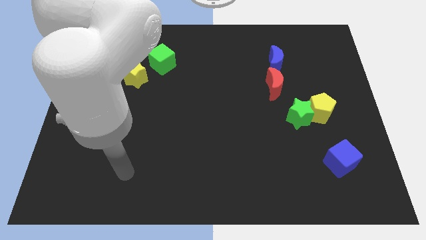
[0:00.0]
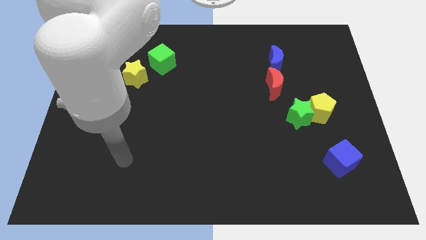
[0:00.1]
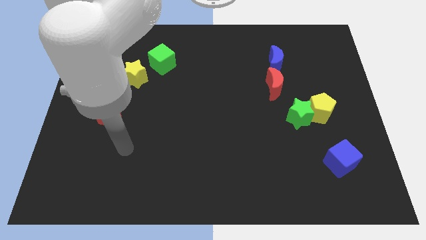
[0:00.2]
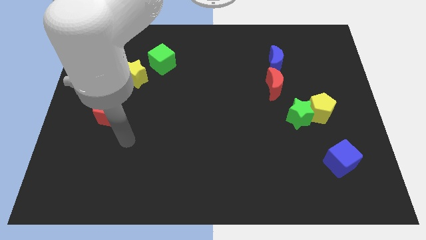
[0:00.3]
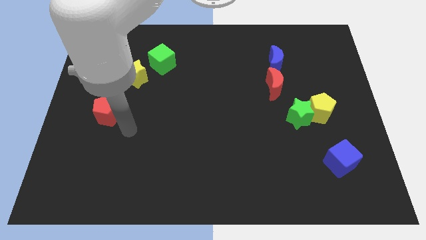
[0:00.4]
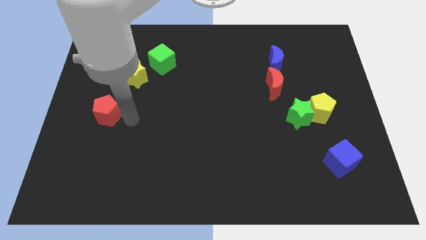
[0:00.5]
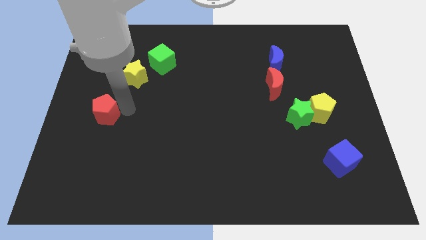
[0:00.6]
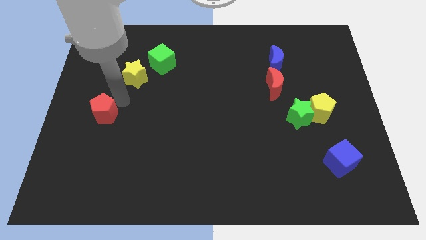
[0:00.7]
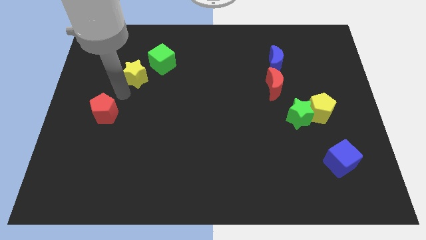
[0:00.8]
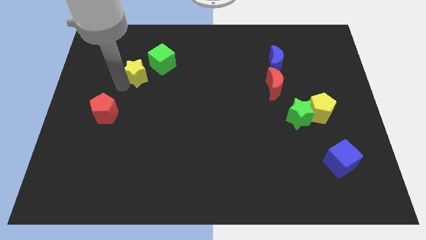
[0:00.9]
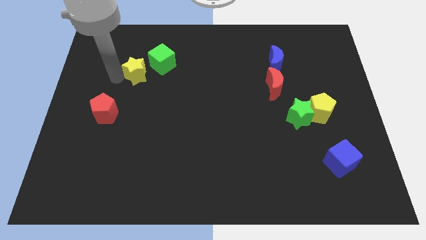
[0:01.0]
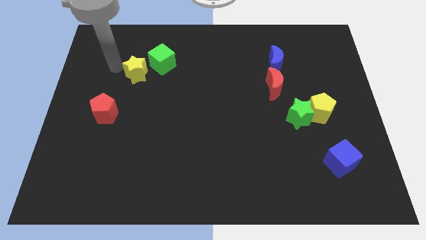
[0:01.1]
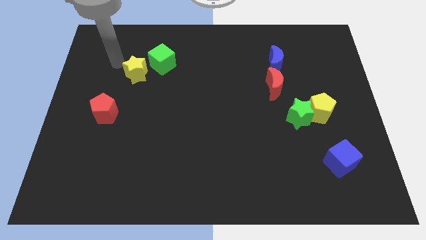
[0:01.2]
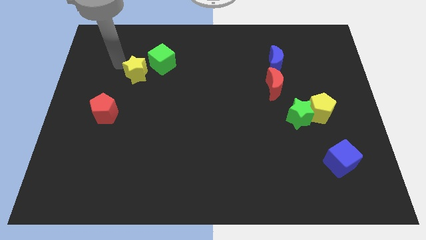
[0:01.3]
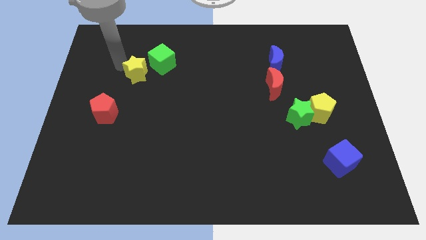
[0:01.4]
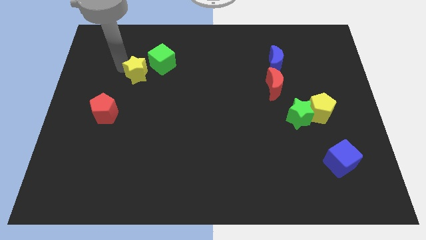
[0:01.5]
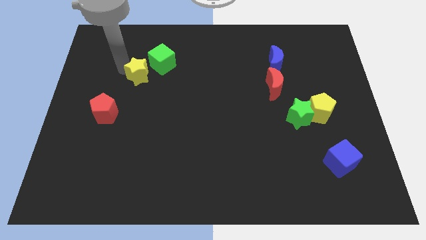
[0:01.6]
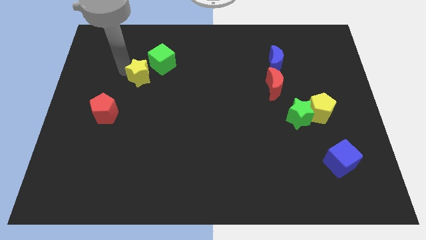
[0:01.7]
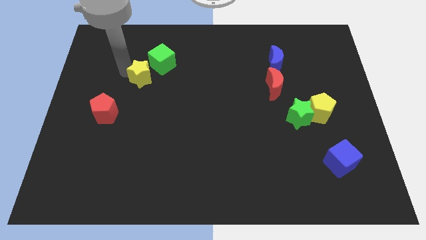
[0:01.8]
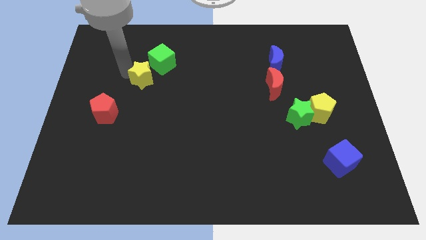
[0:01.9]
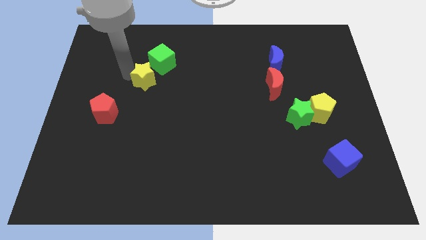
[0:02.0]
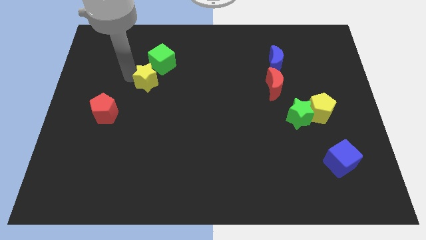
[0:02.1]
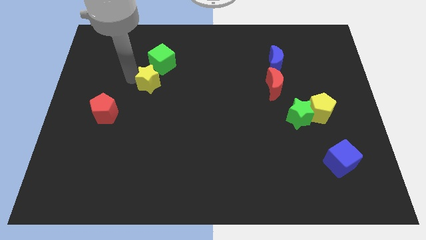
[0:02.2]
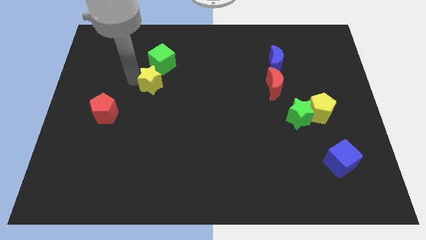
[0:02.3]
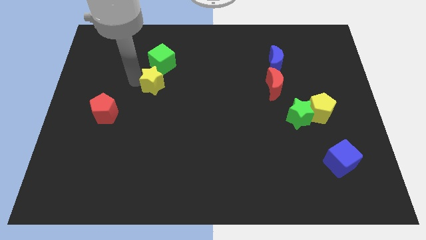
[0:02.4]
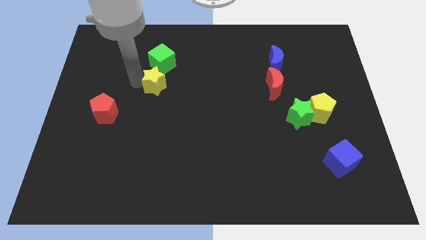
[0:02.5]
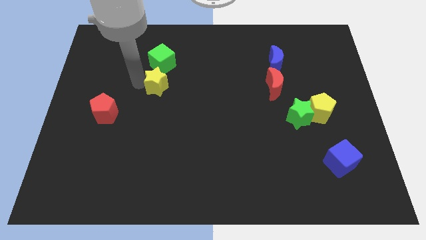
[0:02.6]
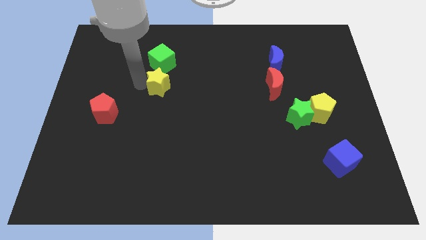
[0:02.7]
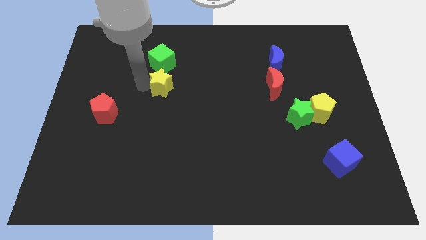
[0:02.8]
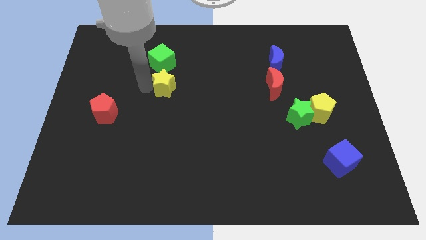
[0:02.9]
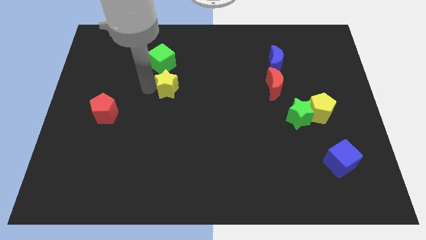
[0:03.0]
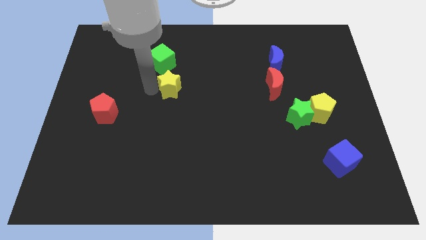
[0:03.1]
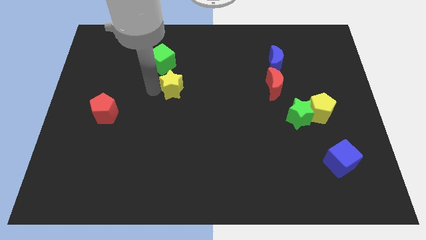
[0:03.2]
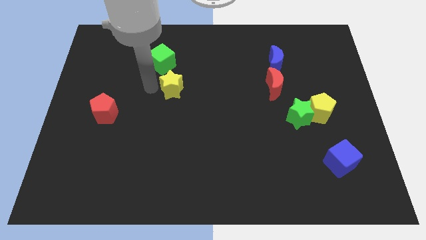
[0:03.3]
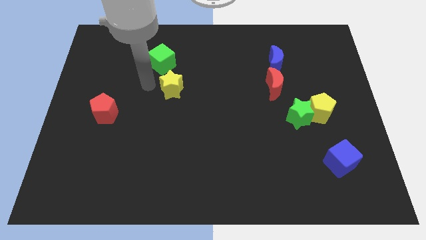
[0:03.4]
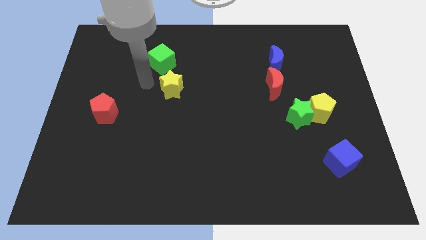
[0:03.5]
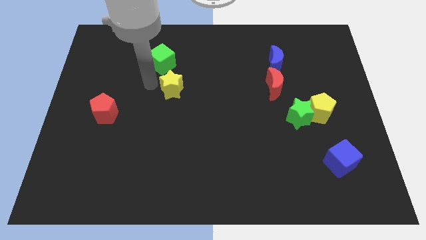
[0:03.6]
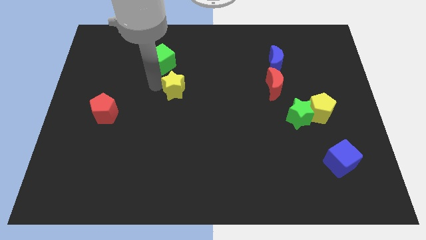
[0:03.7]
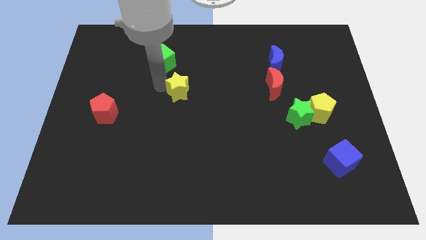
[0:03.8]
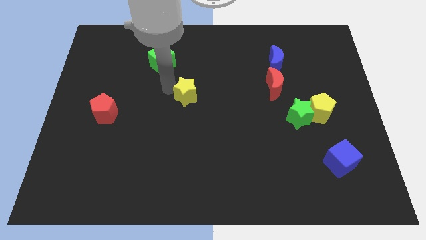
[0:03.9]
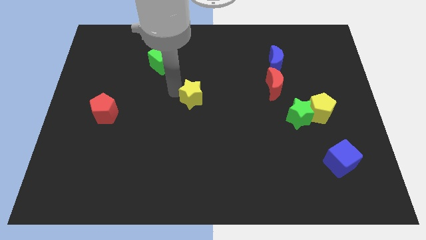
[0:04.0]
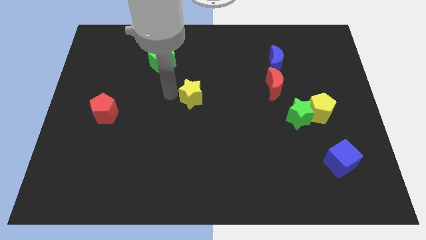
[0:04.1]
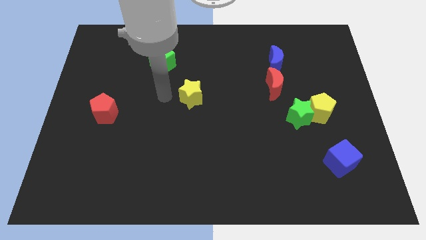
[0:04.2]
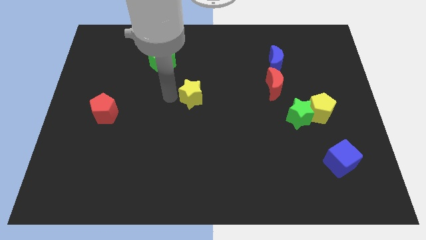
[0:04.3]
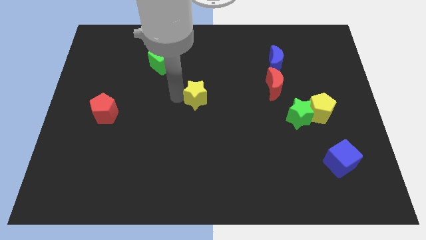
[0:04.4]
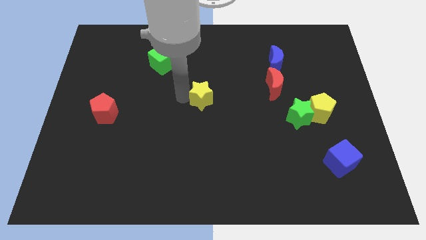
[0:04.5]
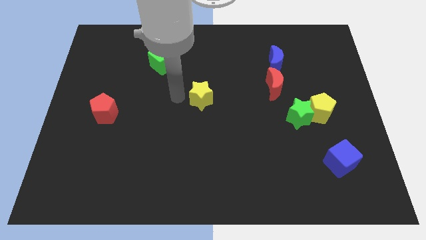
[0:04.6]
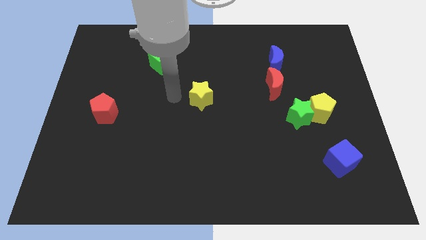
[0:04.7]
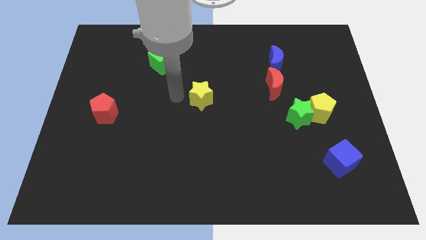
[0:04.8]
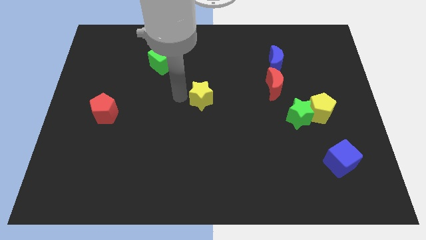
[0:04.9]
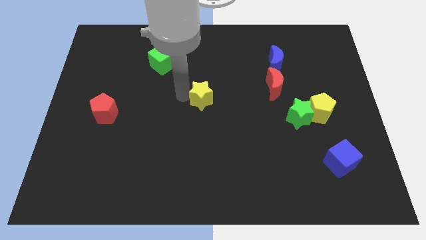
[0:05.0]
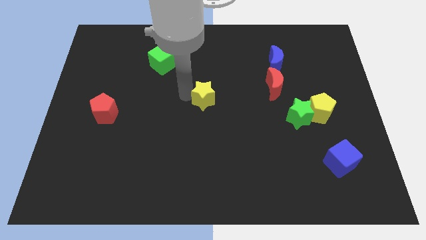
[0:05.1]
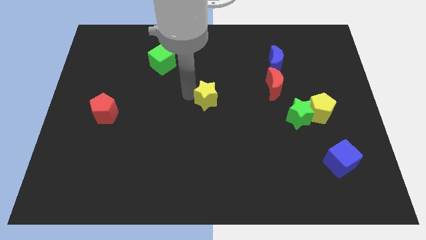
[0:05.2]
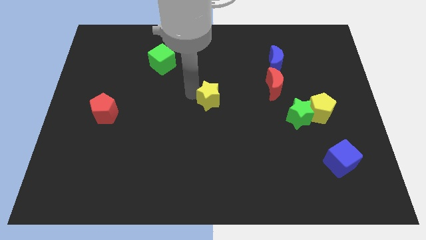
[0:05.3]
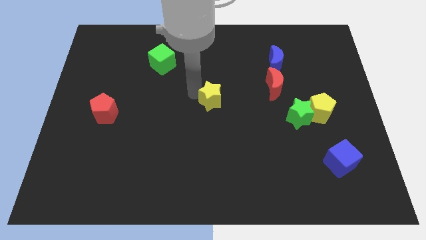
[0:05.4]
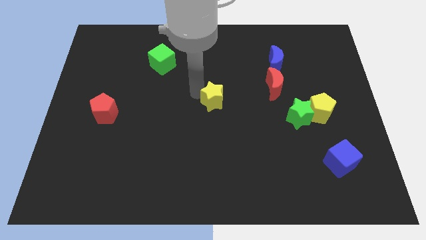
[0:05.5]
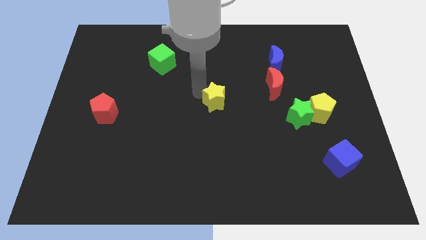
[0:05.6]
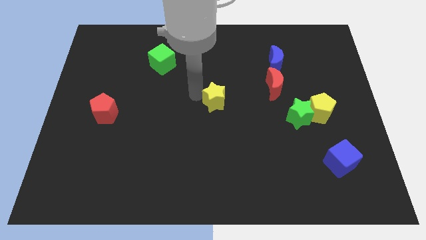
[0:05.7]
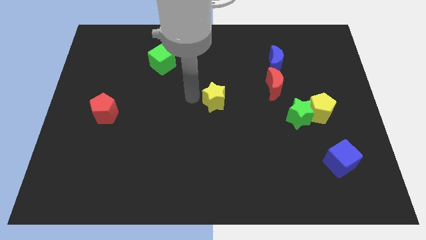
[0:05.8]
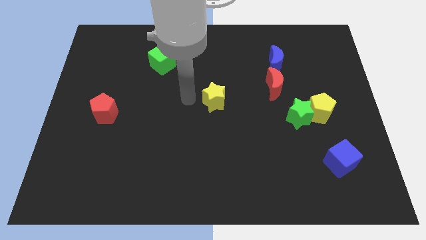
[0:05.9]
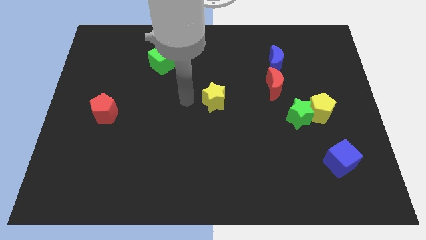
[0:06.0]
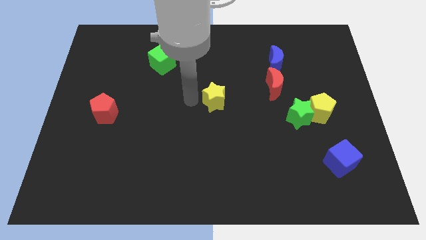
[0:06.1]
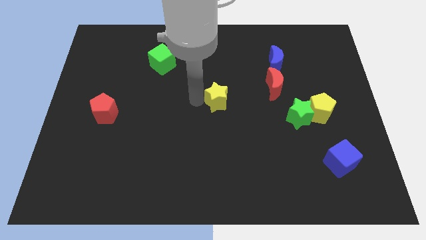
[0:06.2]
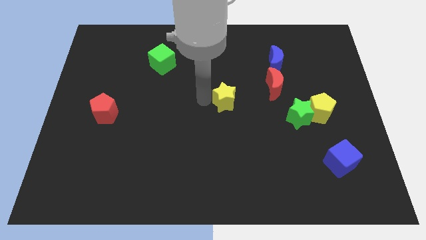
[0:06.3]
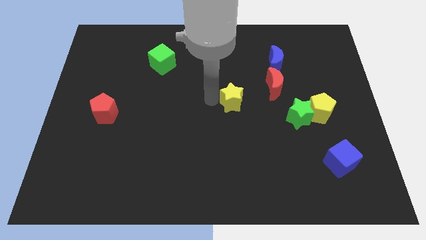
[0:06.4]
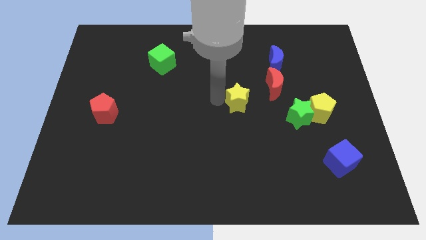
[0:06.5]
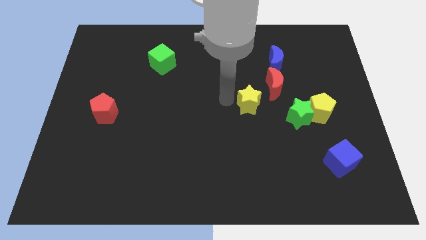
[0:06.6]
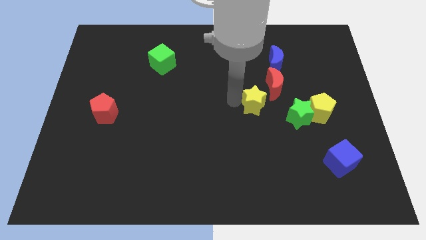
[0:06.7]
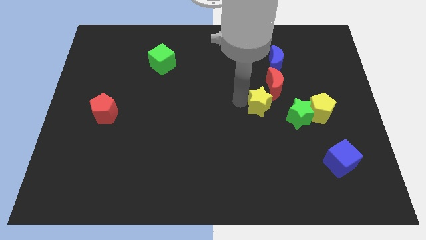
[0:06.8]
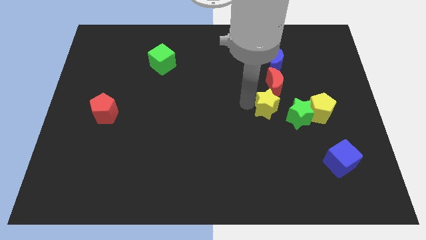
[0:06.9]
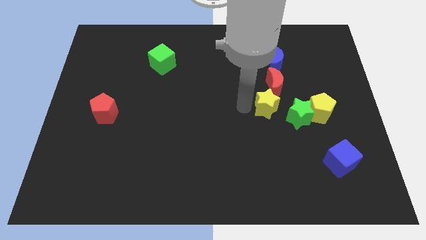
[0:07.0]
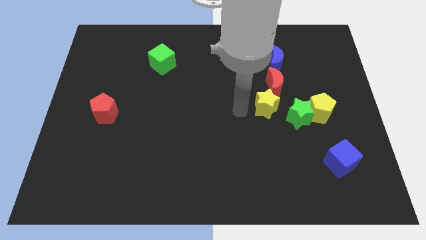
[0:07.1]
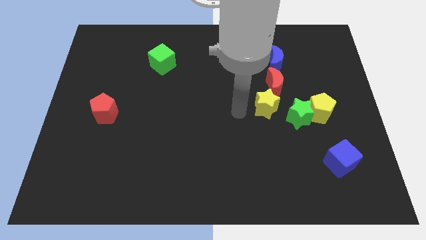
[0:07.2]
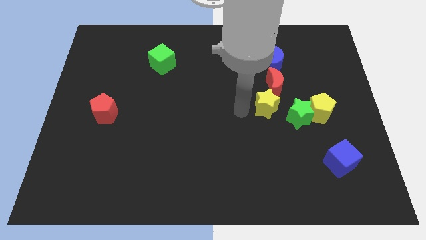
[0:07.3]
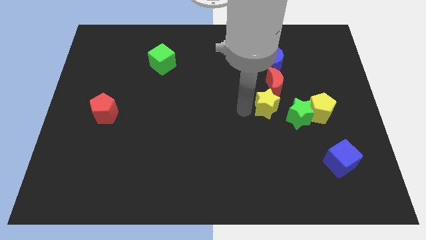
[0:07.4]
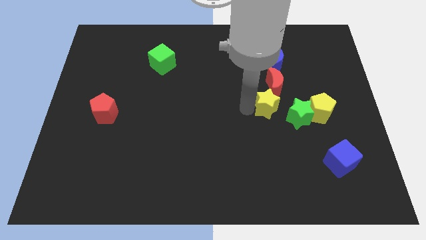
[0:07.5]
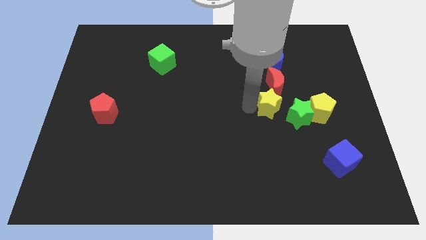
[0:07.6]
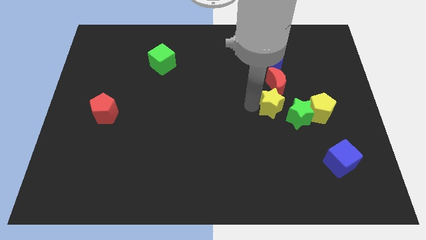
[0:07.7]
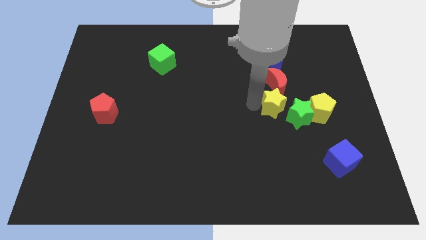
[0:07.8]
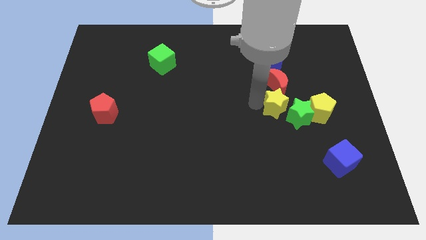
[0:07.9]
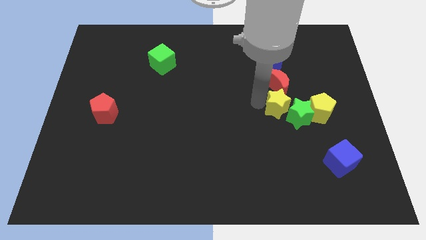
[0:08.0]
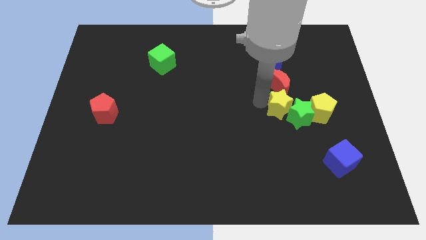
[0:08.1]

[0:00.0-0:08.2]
put the yellow star to the top of the green star
